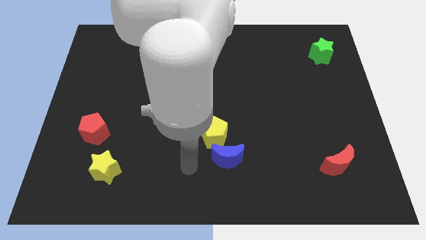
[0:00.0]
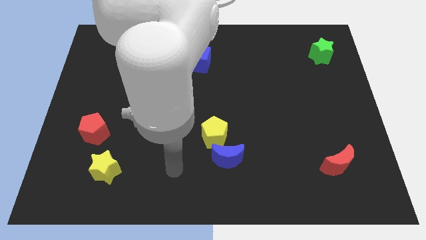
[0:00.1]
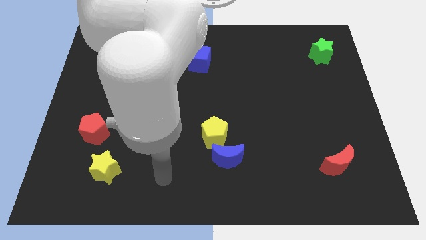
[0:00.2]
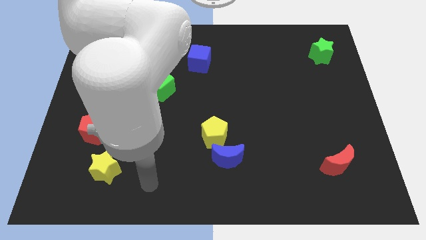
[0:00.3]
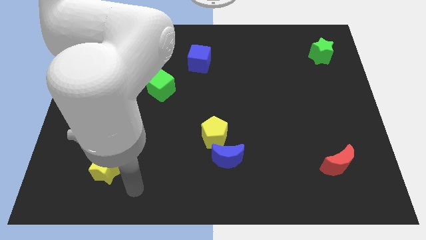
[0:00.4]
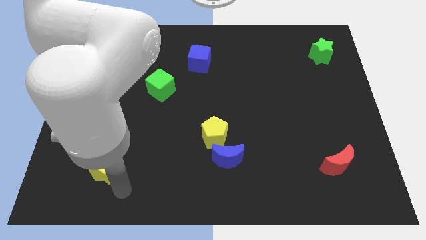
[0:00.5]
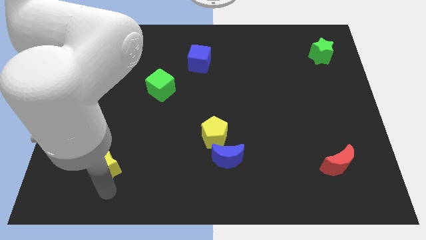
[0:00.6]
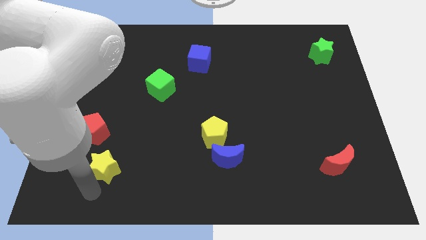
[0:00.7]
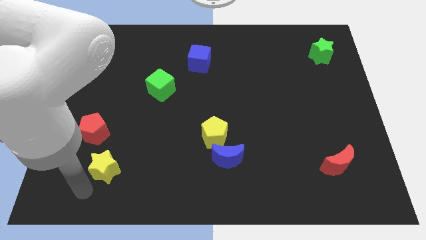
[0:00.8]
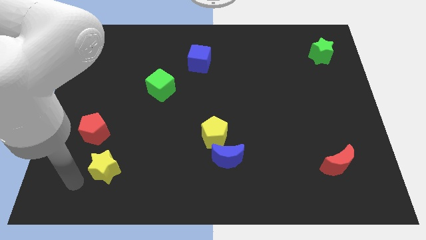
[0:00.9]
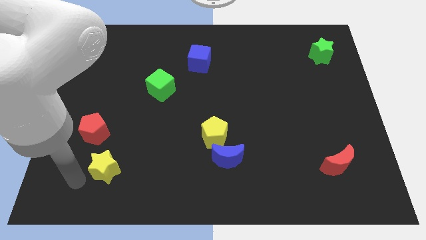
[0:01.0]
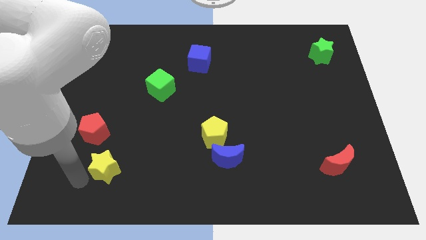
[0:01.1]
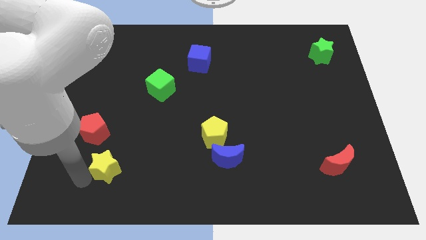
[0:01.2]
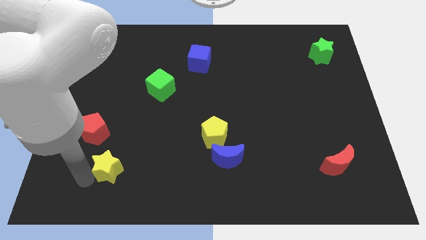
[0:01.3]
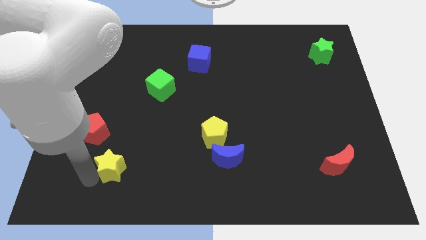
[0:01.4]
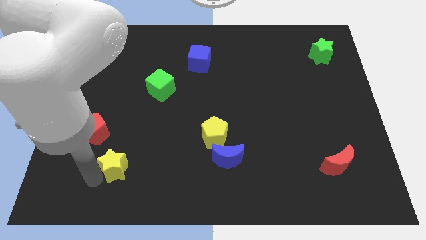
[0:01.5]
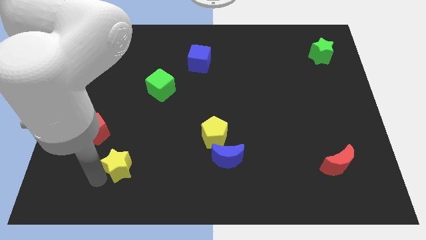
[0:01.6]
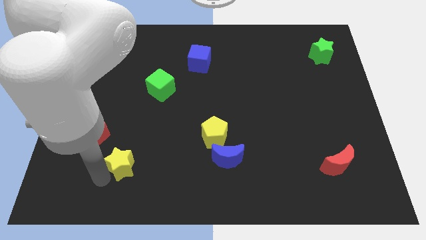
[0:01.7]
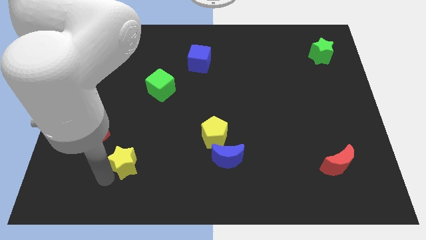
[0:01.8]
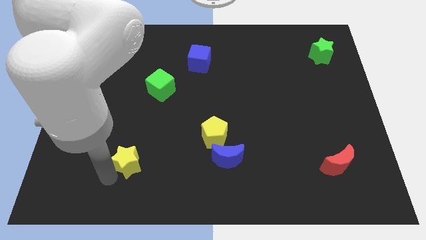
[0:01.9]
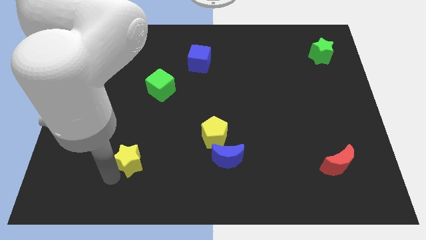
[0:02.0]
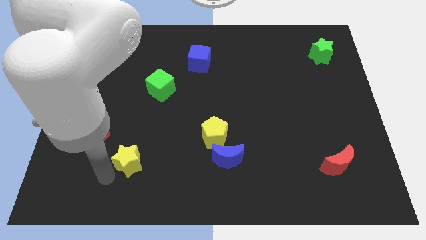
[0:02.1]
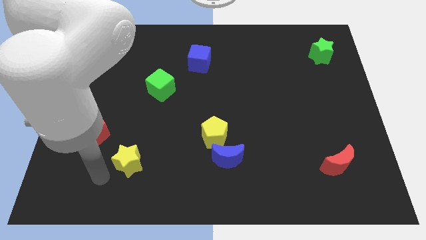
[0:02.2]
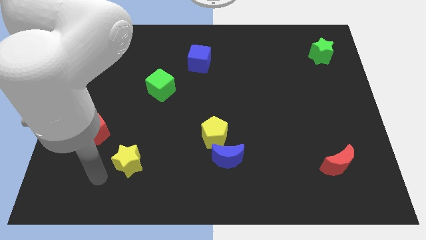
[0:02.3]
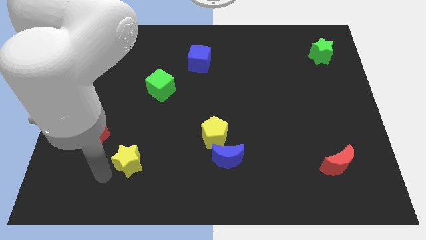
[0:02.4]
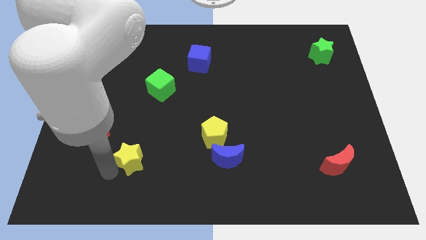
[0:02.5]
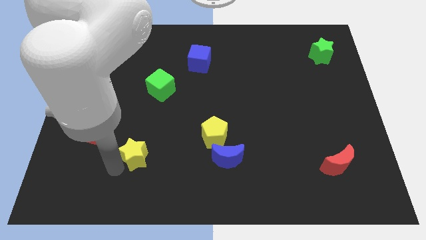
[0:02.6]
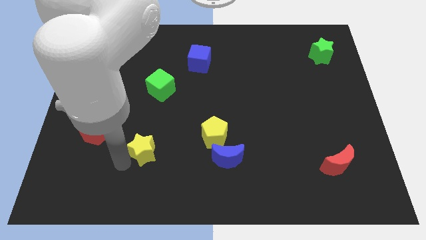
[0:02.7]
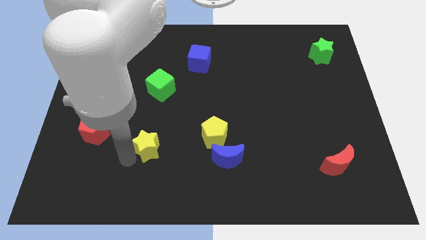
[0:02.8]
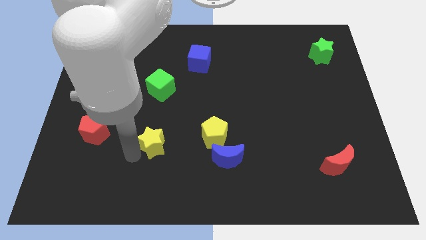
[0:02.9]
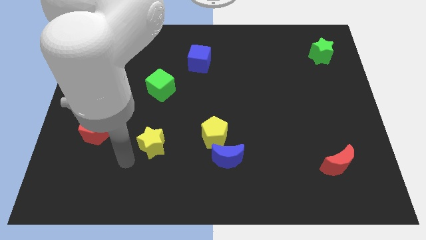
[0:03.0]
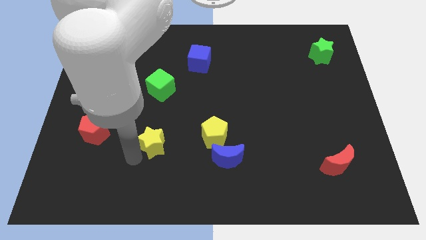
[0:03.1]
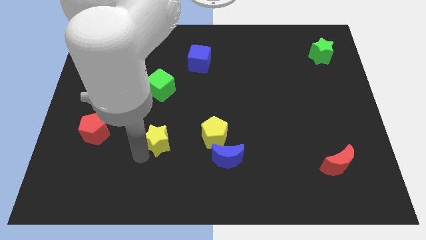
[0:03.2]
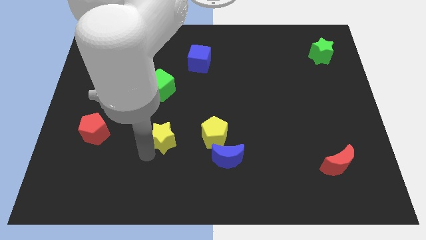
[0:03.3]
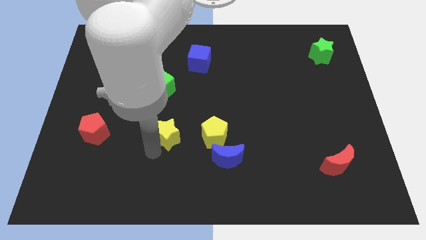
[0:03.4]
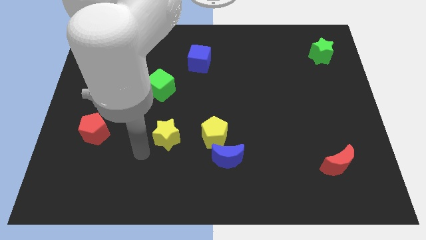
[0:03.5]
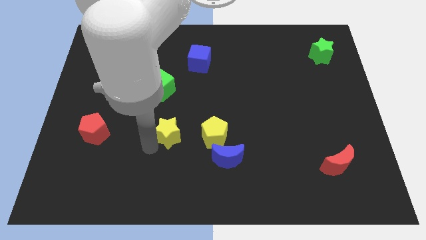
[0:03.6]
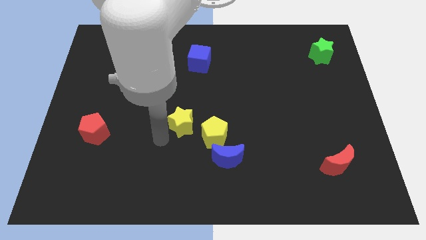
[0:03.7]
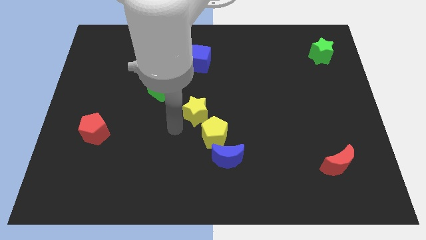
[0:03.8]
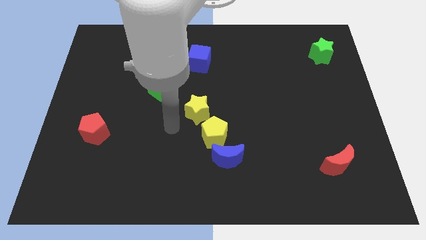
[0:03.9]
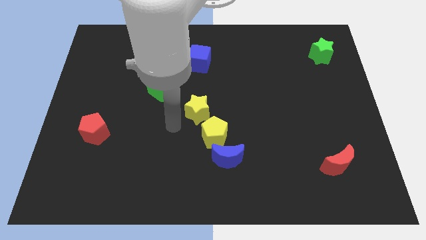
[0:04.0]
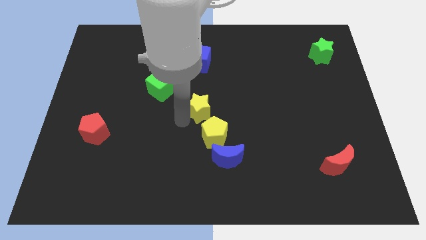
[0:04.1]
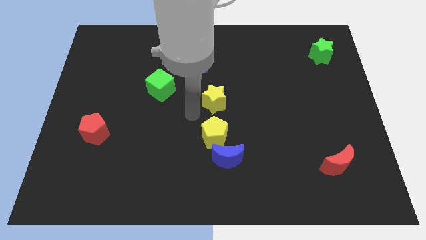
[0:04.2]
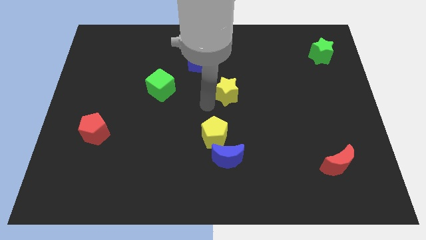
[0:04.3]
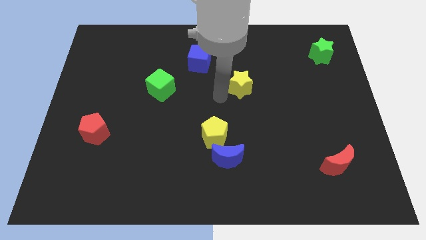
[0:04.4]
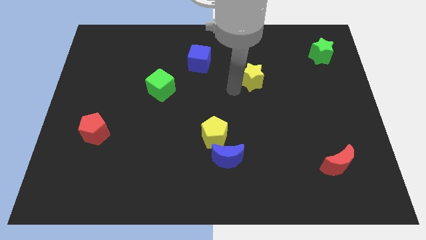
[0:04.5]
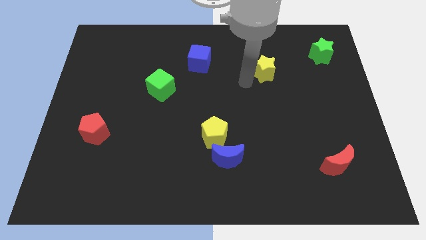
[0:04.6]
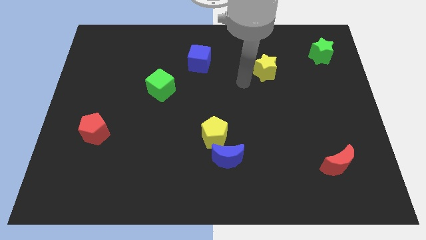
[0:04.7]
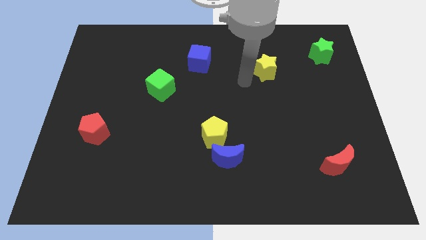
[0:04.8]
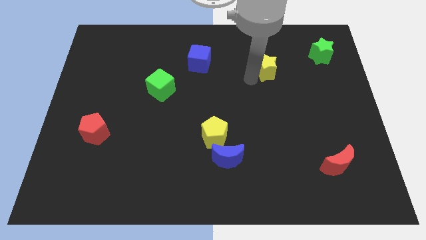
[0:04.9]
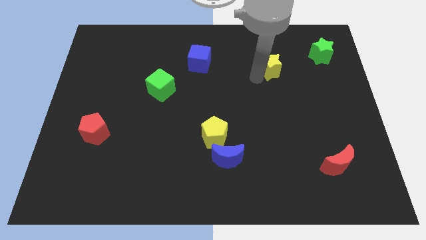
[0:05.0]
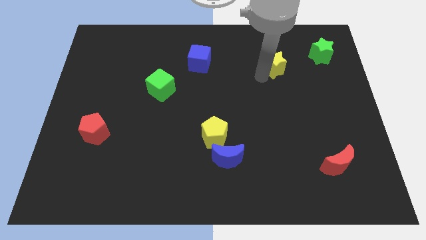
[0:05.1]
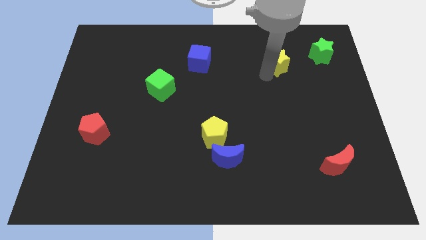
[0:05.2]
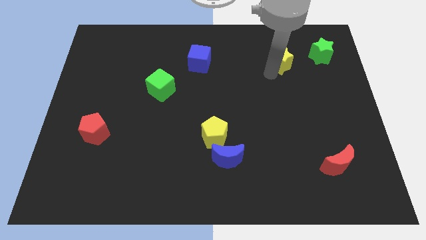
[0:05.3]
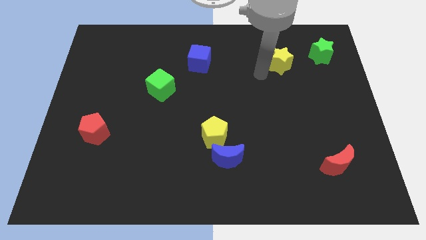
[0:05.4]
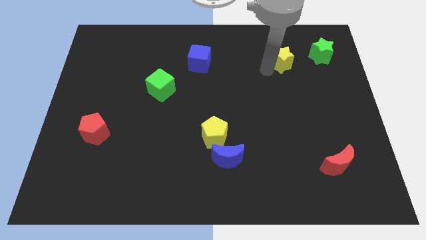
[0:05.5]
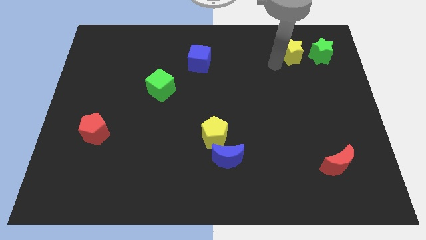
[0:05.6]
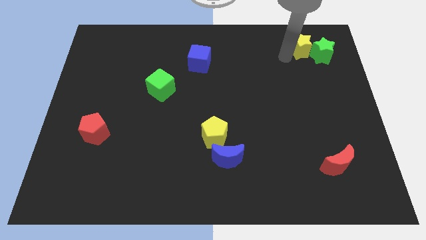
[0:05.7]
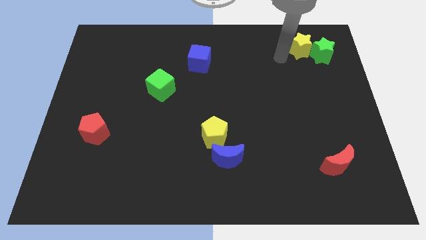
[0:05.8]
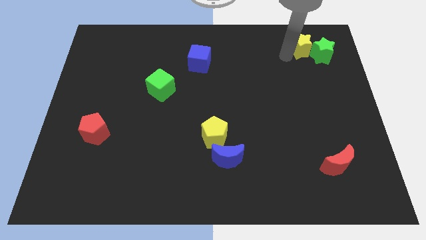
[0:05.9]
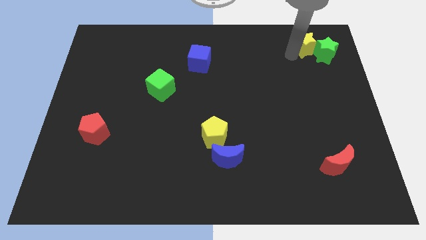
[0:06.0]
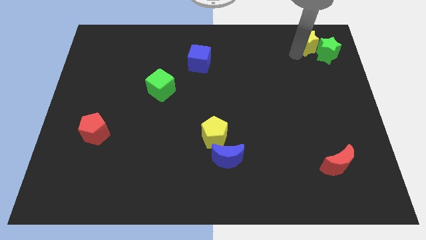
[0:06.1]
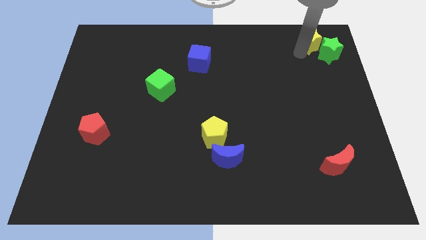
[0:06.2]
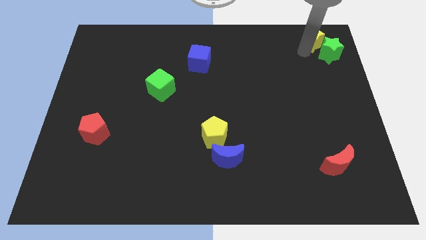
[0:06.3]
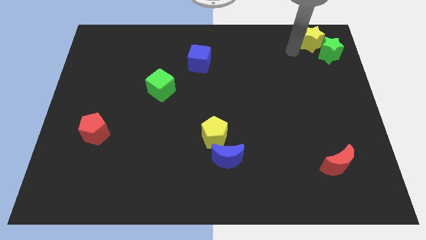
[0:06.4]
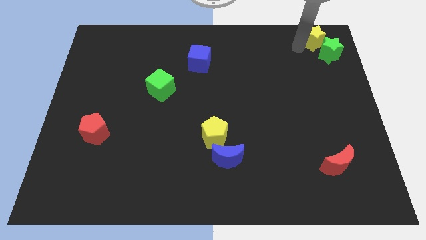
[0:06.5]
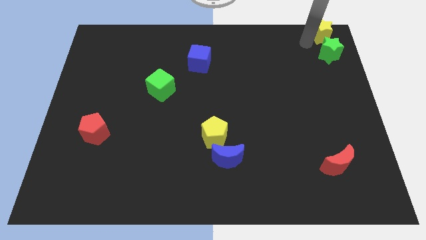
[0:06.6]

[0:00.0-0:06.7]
move the yellow star to the top right
